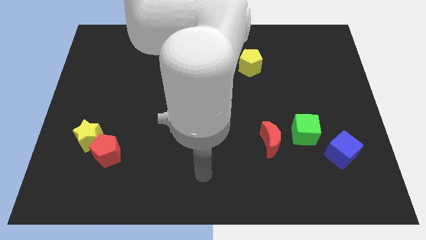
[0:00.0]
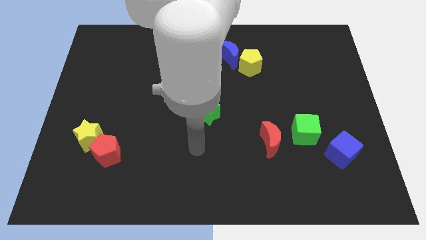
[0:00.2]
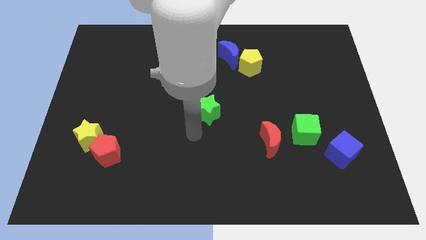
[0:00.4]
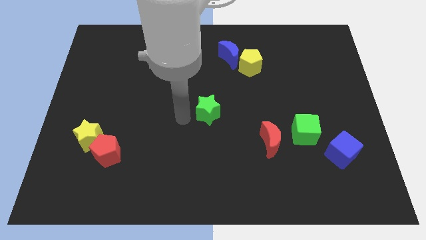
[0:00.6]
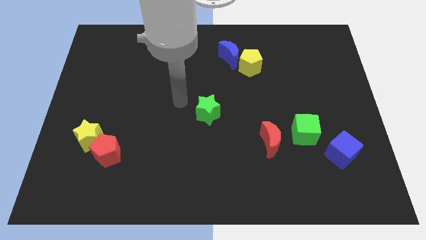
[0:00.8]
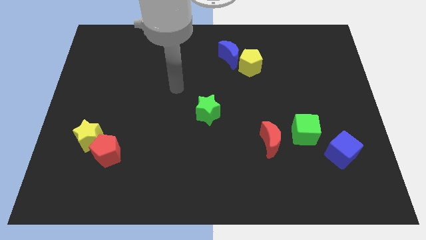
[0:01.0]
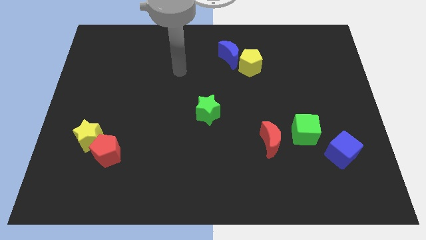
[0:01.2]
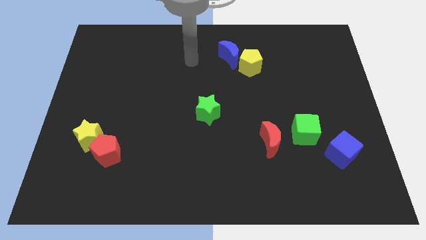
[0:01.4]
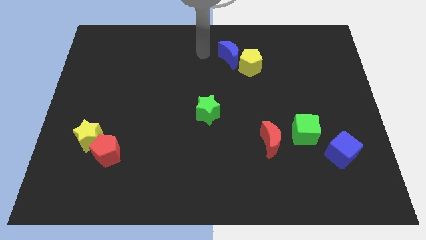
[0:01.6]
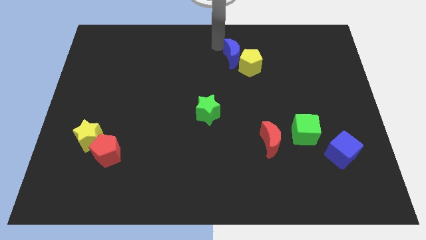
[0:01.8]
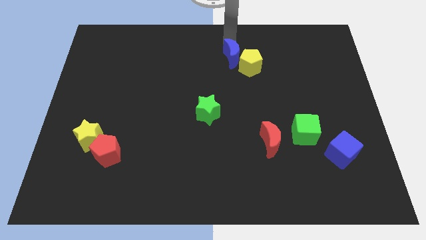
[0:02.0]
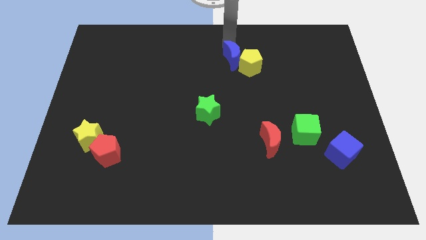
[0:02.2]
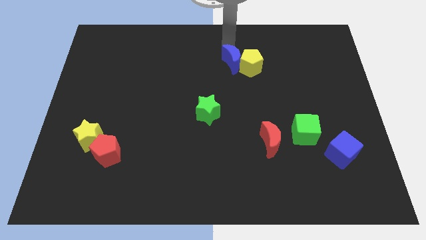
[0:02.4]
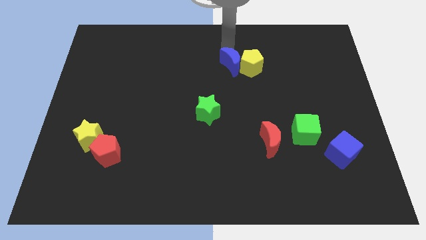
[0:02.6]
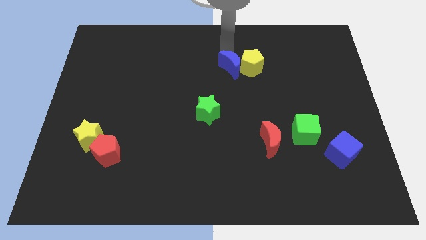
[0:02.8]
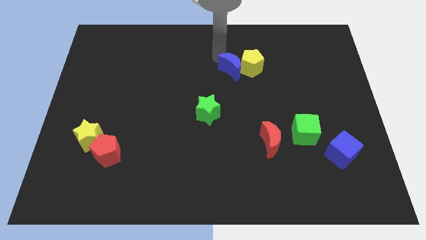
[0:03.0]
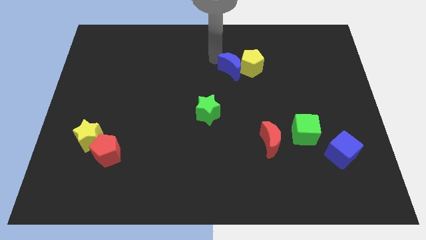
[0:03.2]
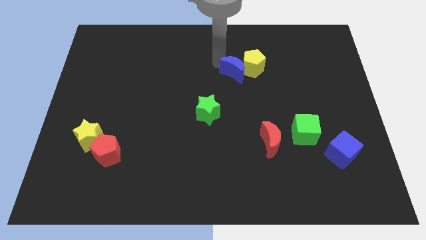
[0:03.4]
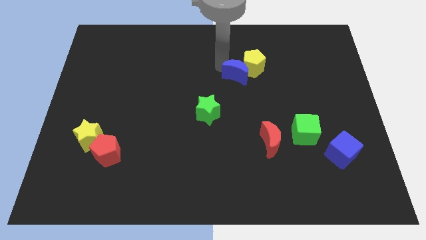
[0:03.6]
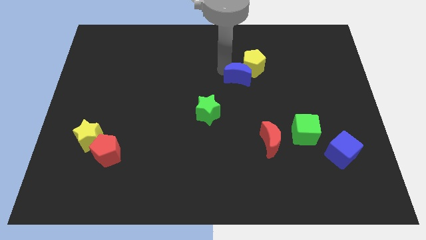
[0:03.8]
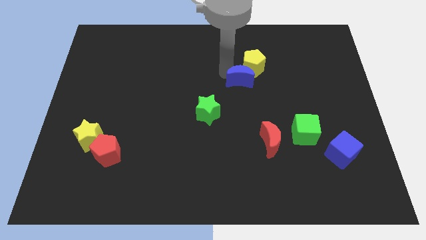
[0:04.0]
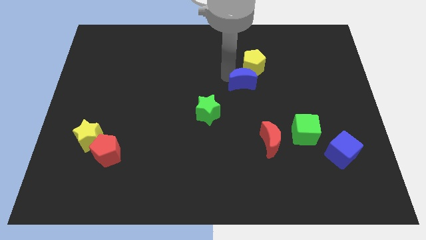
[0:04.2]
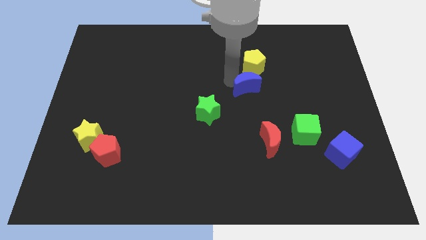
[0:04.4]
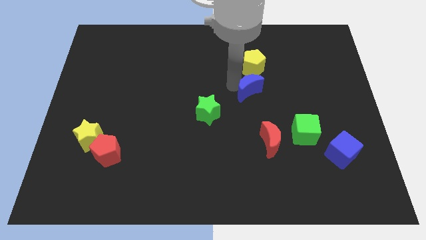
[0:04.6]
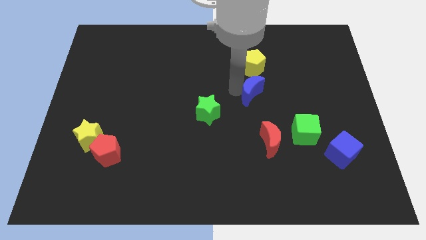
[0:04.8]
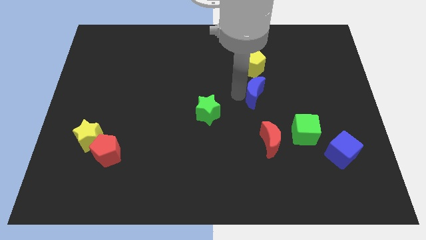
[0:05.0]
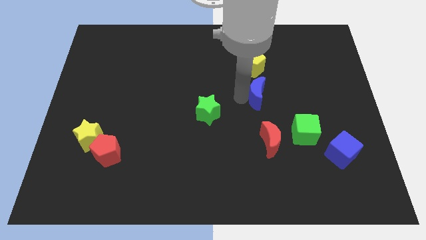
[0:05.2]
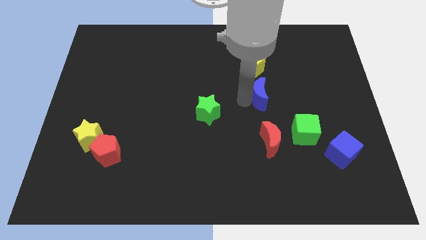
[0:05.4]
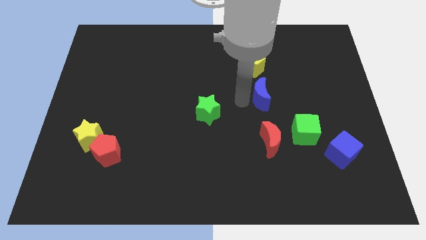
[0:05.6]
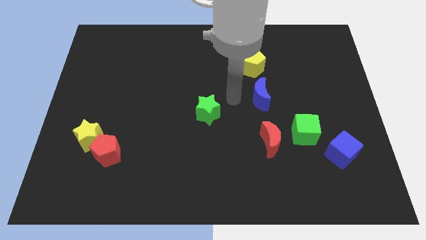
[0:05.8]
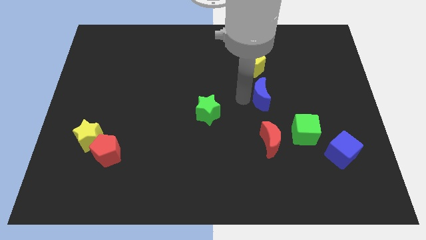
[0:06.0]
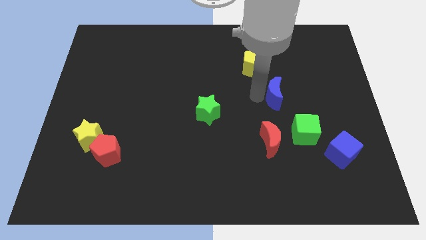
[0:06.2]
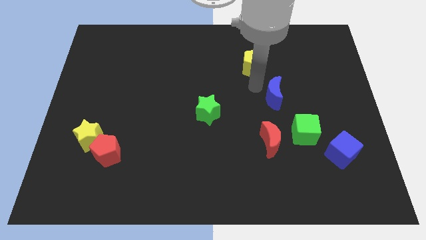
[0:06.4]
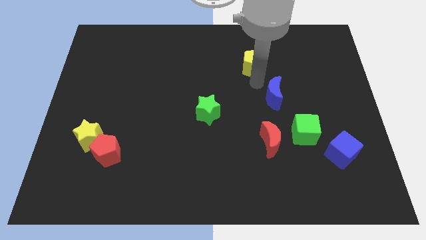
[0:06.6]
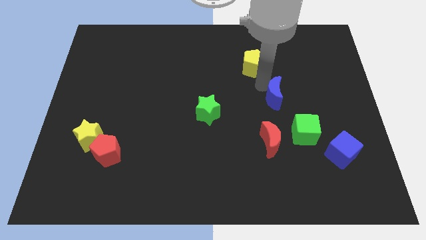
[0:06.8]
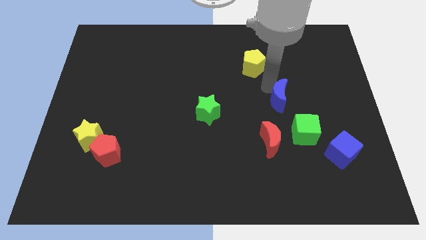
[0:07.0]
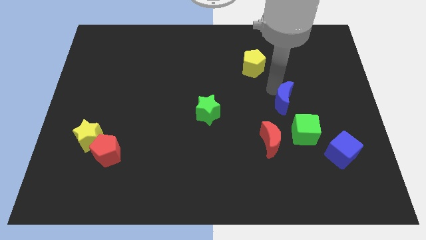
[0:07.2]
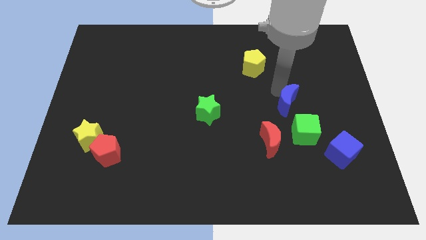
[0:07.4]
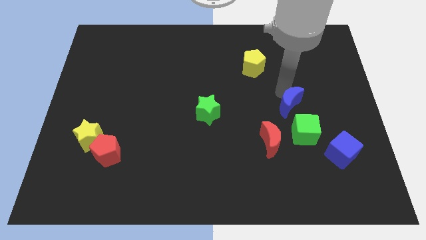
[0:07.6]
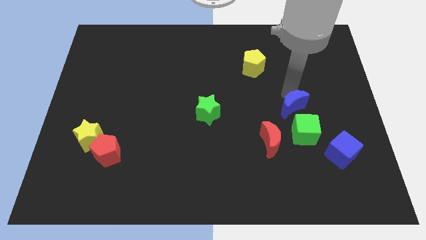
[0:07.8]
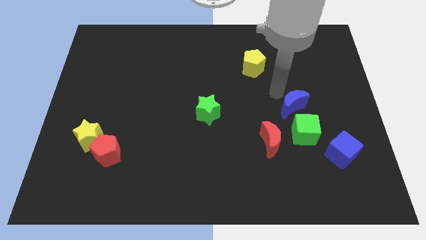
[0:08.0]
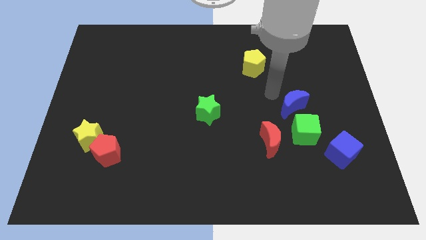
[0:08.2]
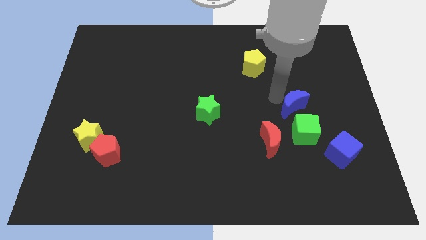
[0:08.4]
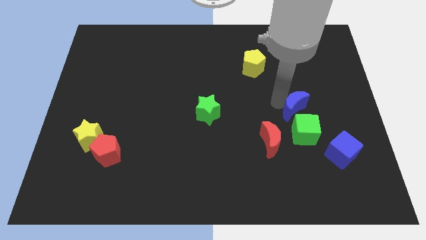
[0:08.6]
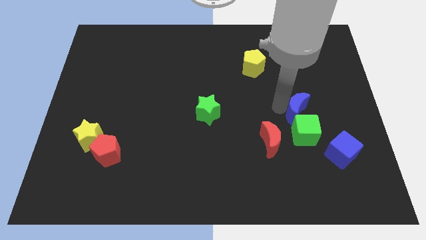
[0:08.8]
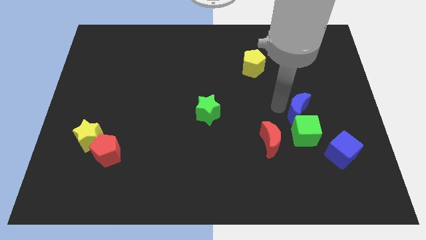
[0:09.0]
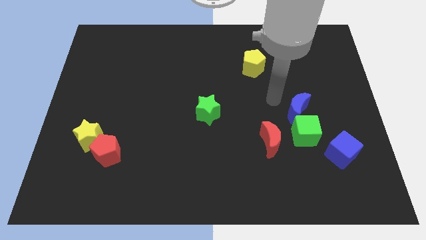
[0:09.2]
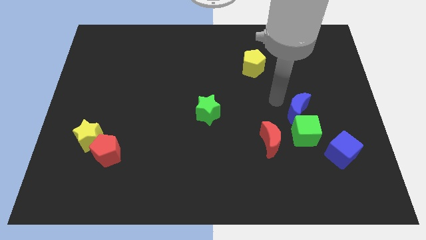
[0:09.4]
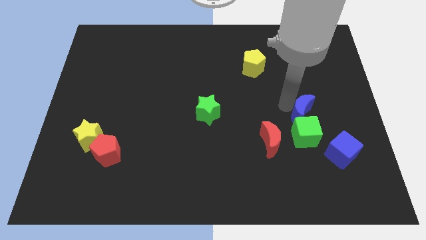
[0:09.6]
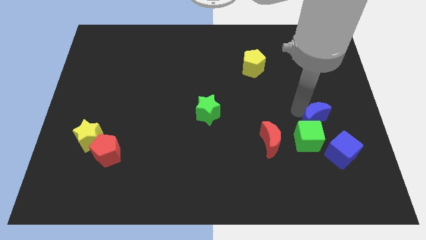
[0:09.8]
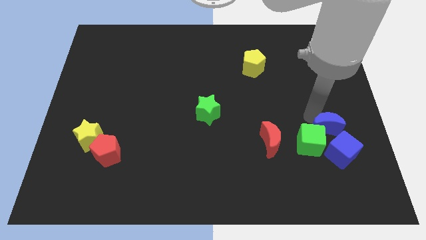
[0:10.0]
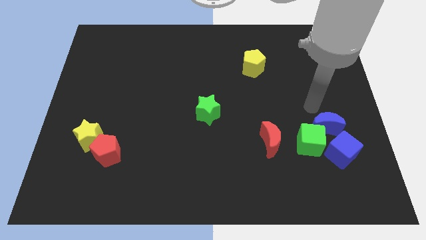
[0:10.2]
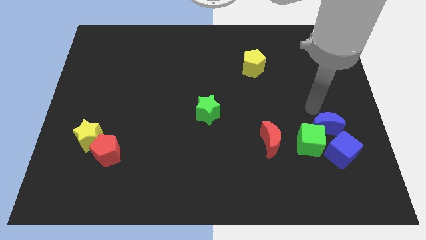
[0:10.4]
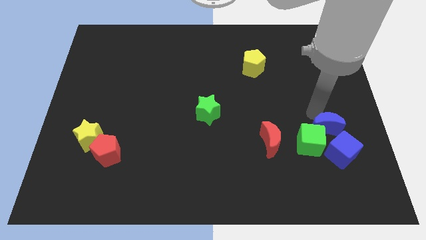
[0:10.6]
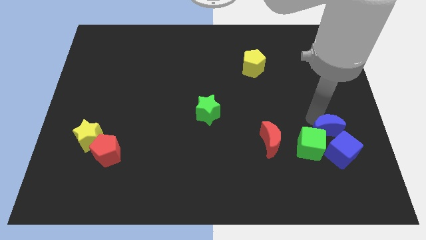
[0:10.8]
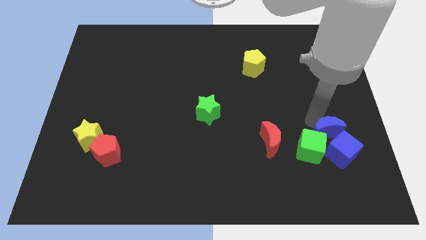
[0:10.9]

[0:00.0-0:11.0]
push the blue moon to the blue cube

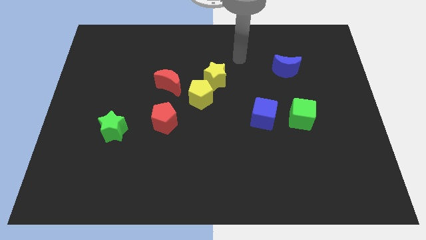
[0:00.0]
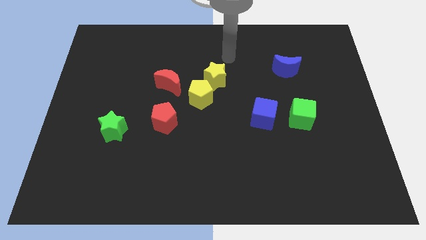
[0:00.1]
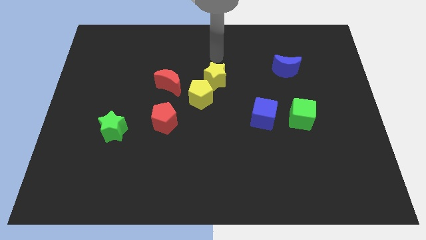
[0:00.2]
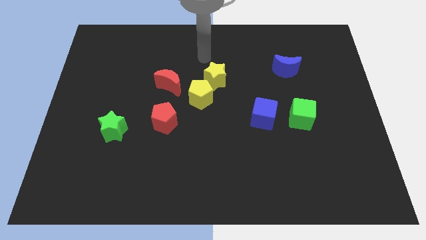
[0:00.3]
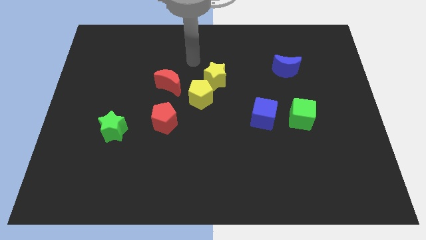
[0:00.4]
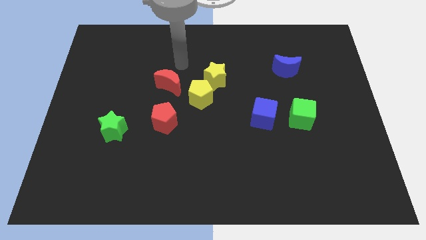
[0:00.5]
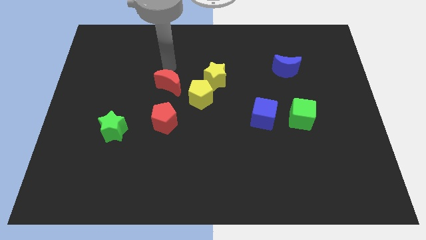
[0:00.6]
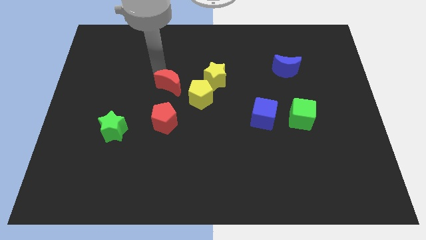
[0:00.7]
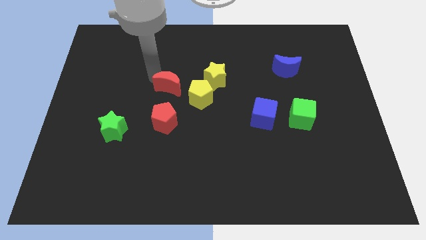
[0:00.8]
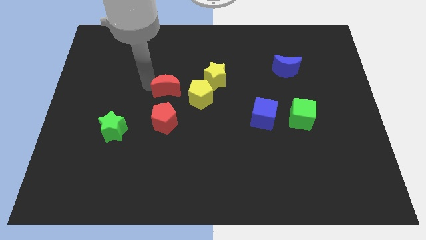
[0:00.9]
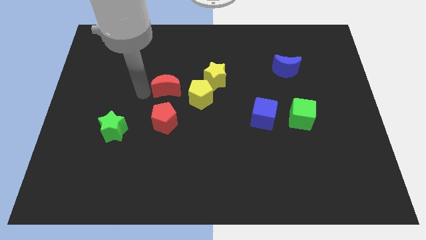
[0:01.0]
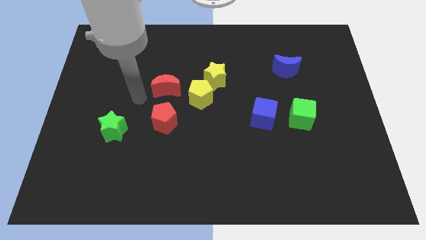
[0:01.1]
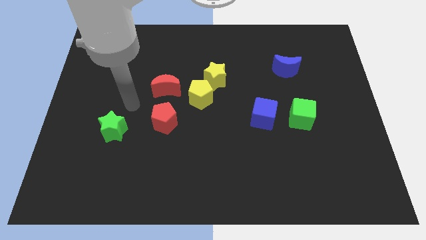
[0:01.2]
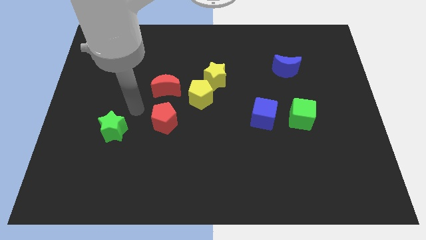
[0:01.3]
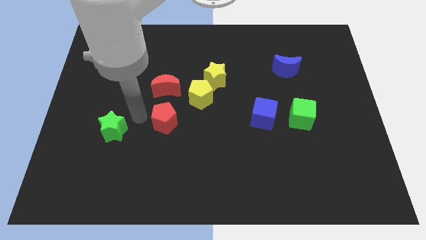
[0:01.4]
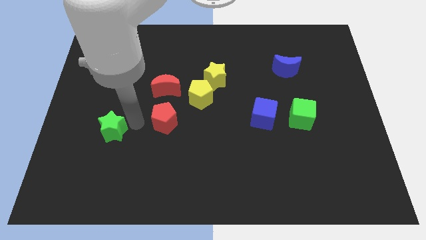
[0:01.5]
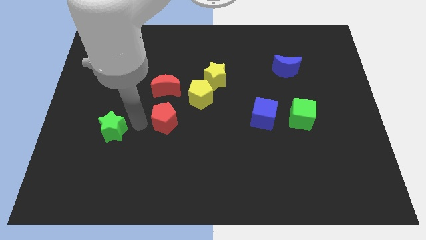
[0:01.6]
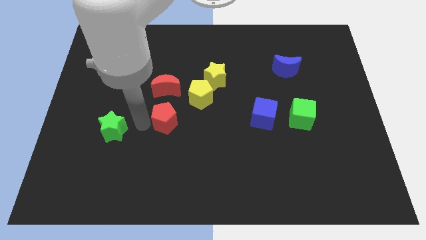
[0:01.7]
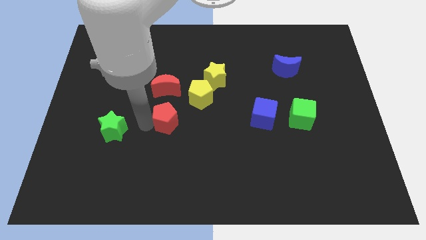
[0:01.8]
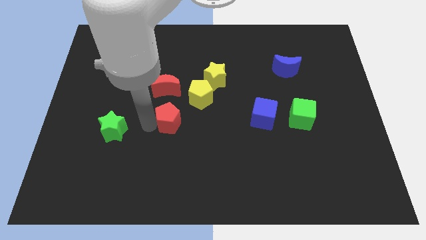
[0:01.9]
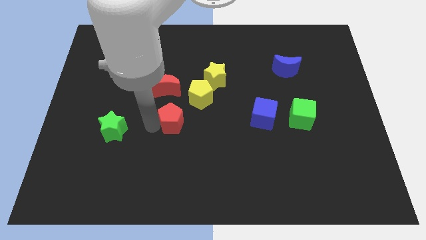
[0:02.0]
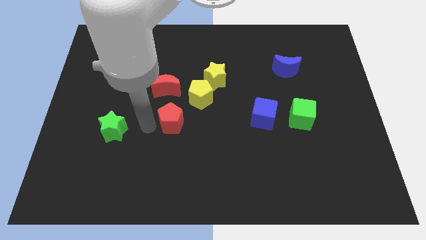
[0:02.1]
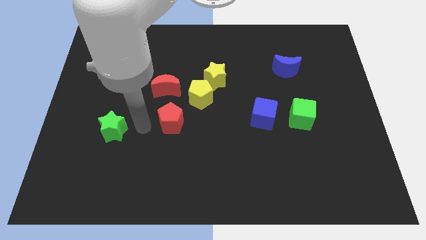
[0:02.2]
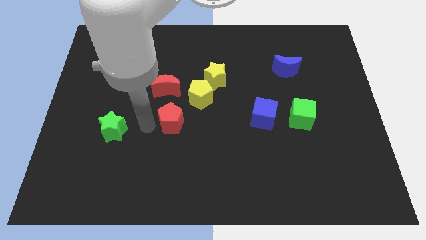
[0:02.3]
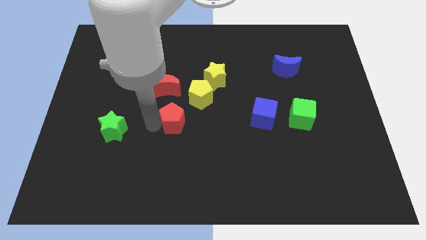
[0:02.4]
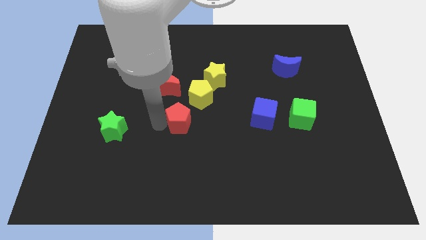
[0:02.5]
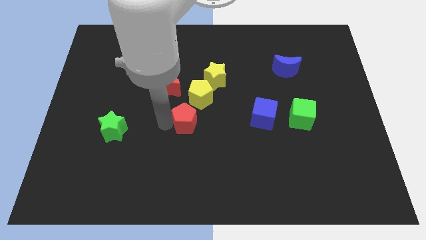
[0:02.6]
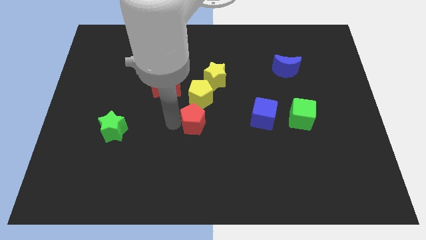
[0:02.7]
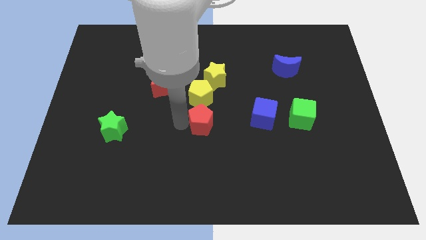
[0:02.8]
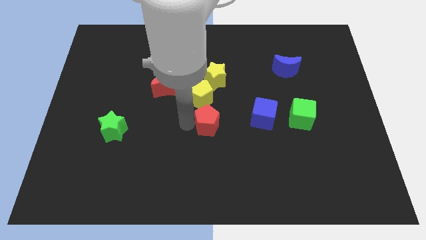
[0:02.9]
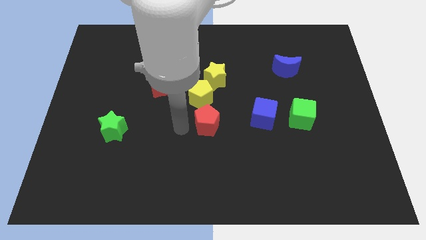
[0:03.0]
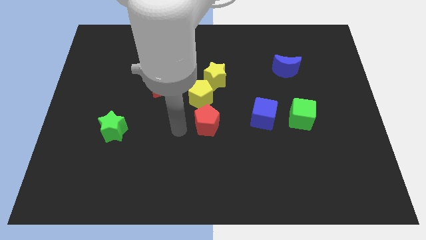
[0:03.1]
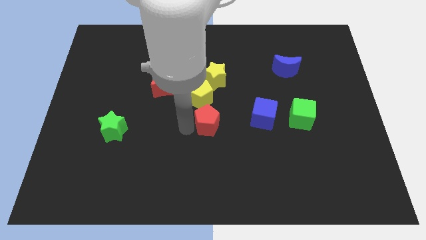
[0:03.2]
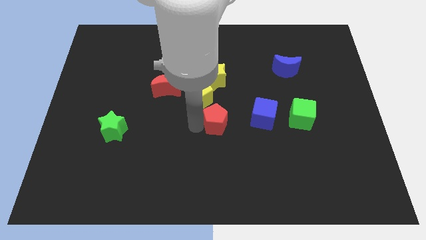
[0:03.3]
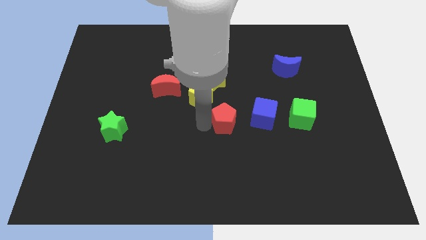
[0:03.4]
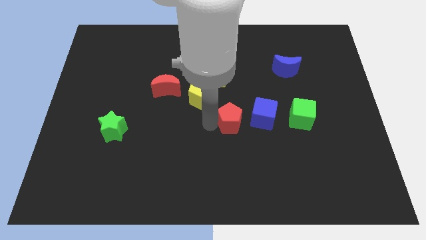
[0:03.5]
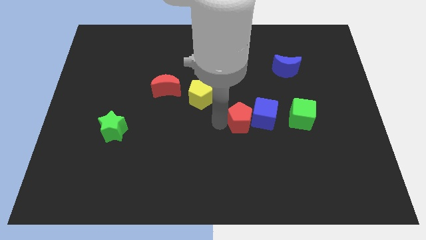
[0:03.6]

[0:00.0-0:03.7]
put the red pentagon close to the blue cube
